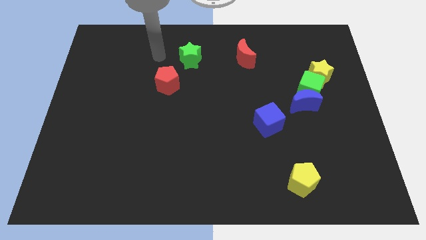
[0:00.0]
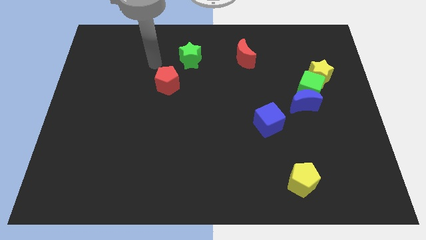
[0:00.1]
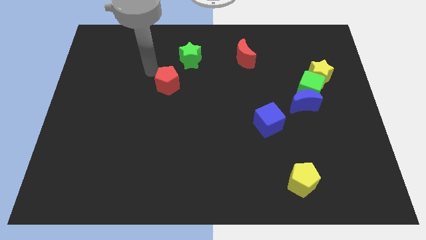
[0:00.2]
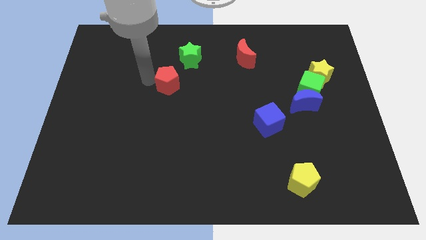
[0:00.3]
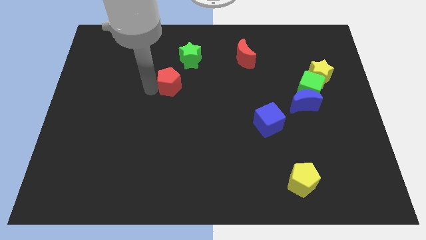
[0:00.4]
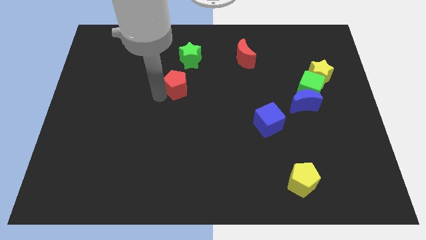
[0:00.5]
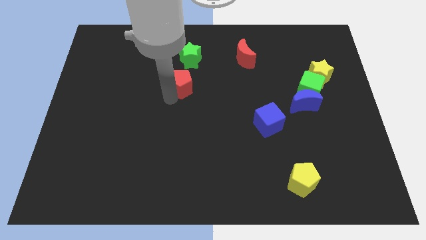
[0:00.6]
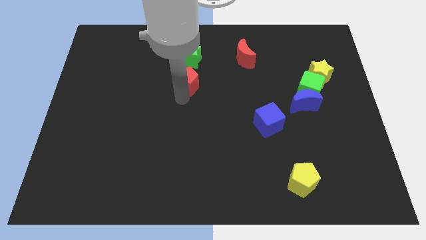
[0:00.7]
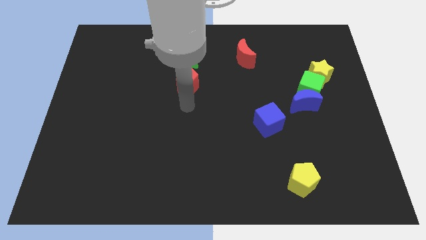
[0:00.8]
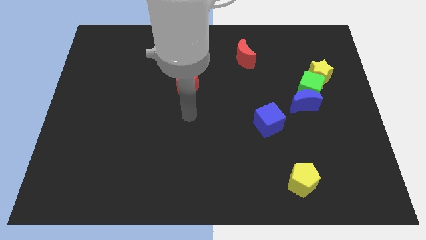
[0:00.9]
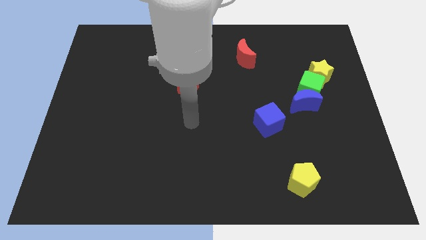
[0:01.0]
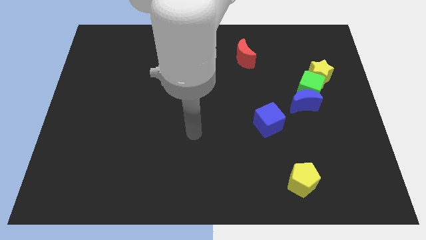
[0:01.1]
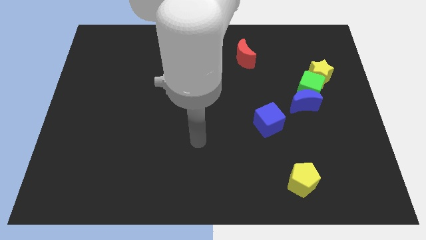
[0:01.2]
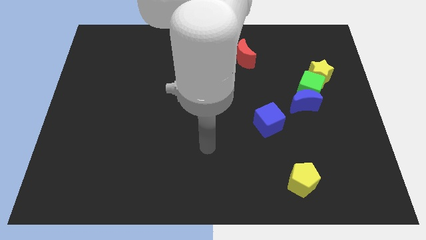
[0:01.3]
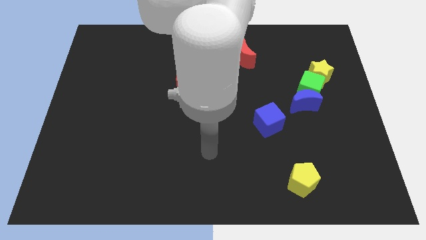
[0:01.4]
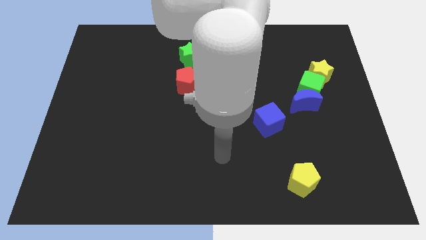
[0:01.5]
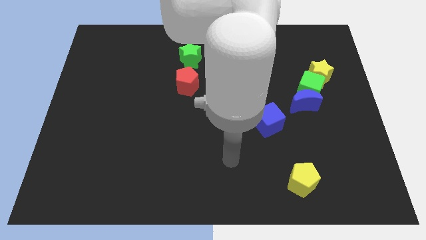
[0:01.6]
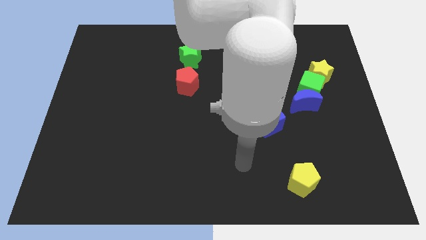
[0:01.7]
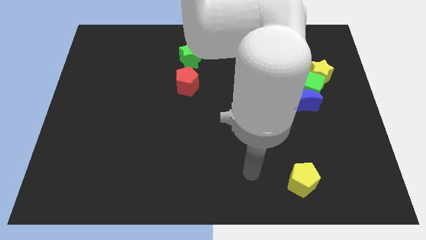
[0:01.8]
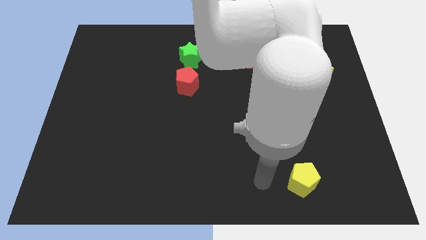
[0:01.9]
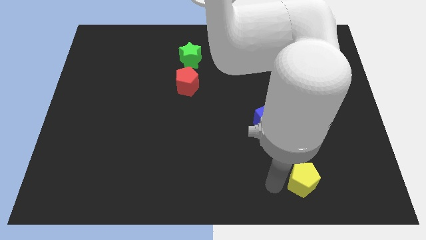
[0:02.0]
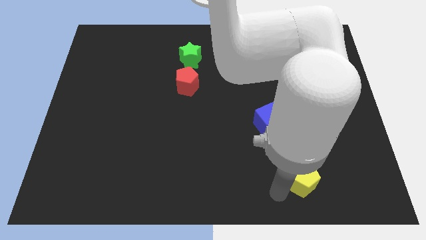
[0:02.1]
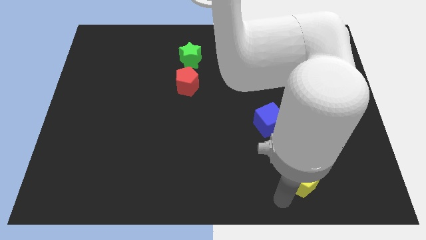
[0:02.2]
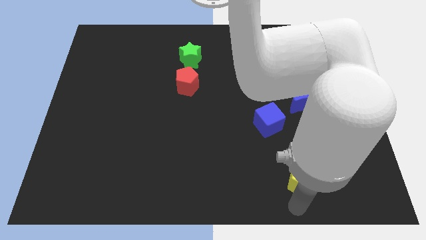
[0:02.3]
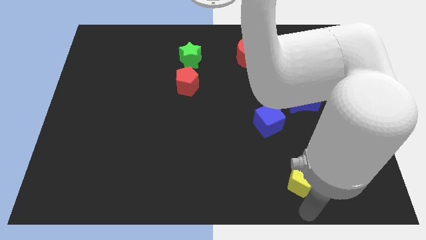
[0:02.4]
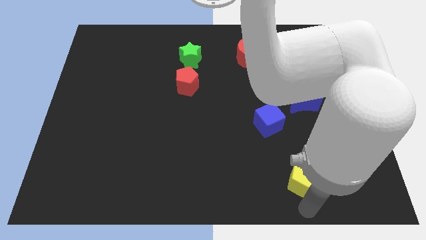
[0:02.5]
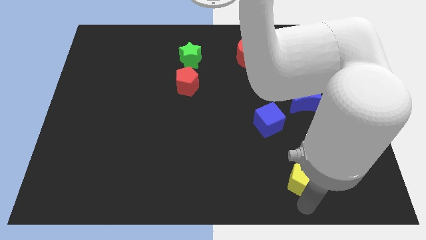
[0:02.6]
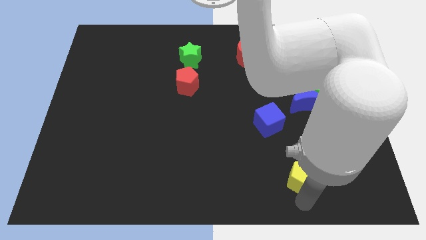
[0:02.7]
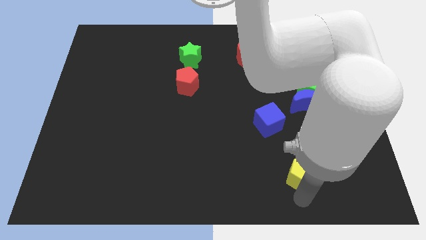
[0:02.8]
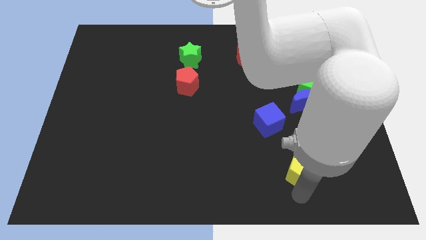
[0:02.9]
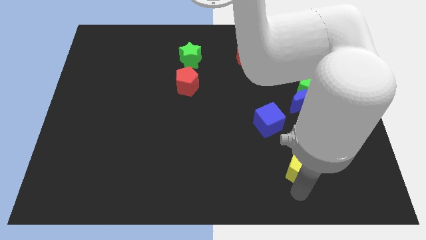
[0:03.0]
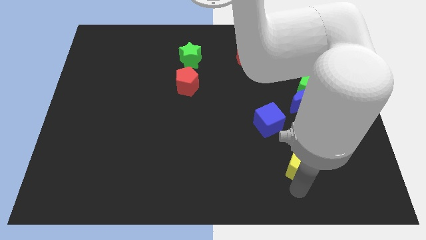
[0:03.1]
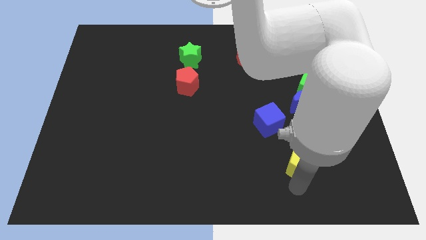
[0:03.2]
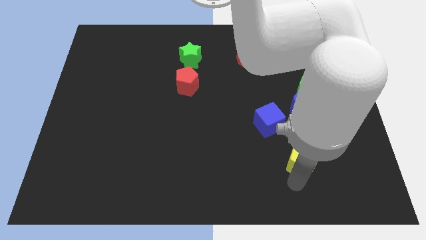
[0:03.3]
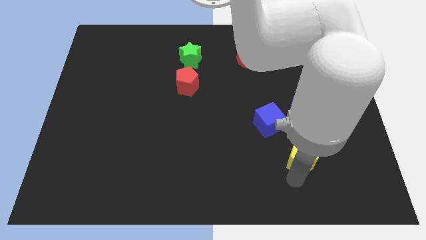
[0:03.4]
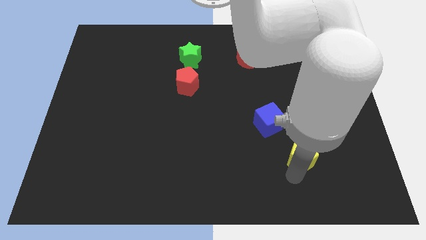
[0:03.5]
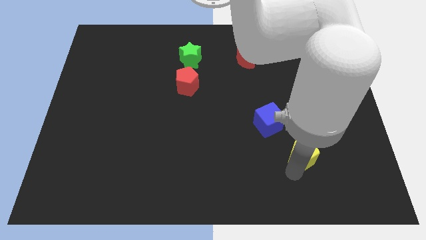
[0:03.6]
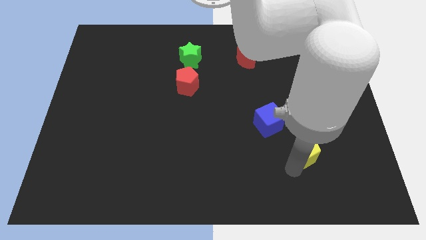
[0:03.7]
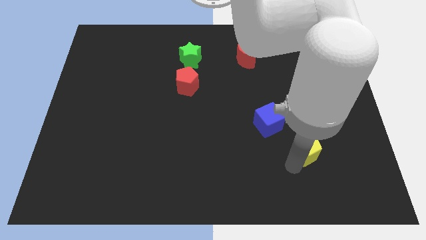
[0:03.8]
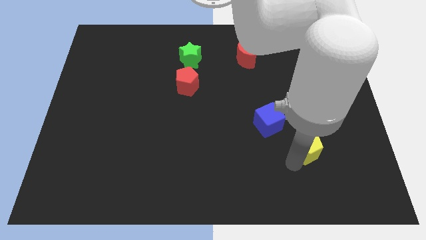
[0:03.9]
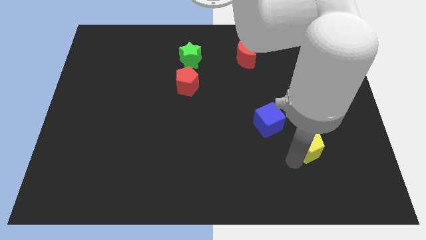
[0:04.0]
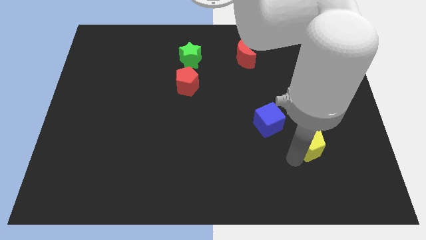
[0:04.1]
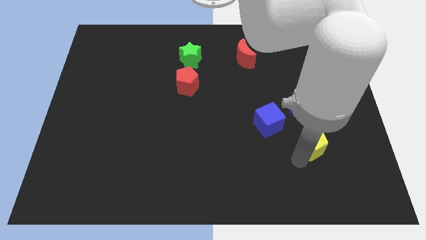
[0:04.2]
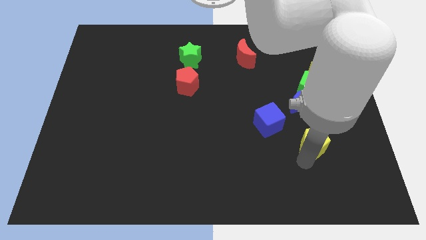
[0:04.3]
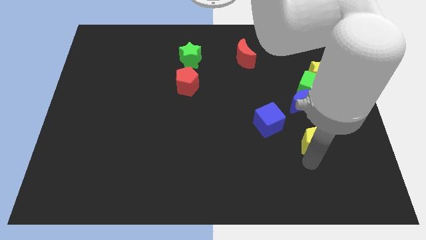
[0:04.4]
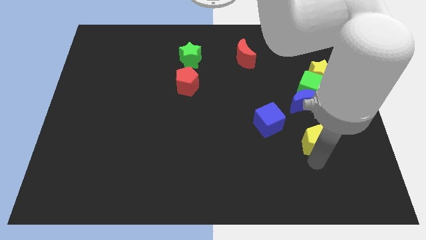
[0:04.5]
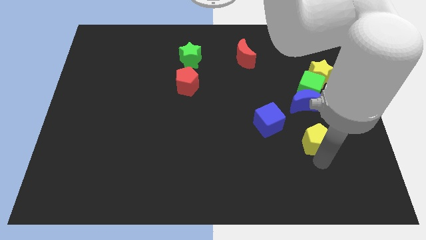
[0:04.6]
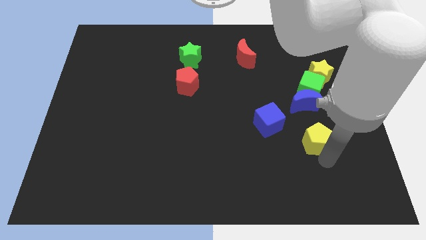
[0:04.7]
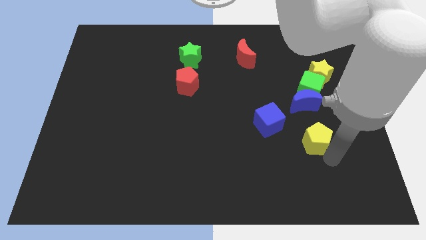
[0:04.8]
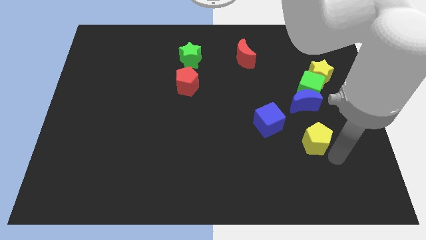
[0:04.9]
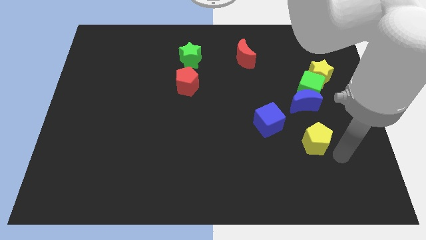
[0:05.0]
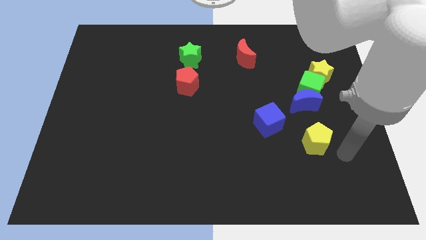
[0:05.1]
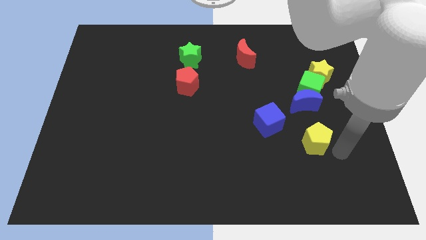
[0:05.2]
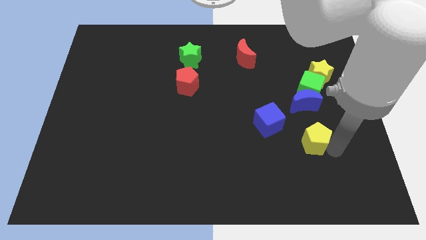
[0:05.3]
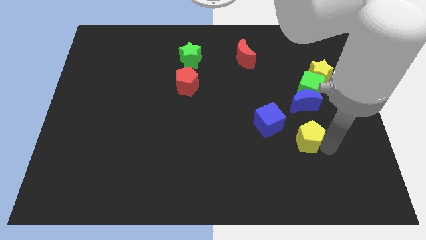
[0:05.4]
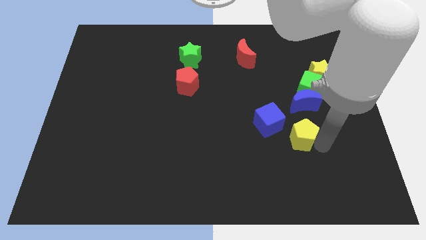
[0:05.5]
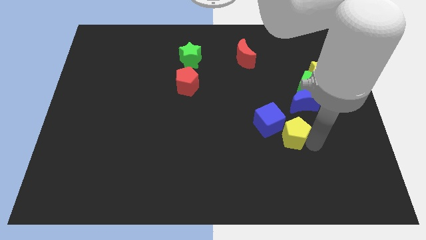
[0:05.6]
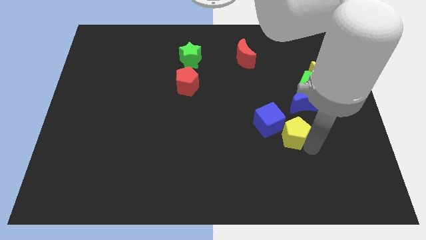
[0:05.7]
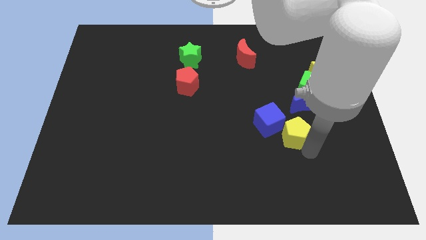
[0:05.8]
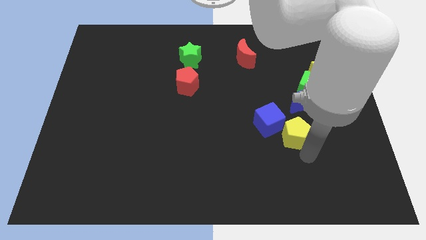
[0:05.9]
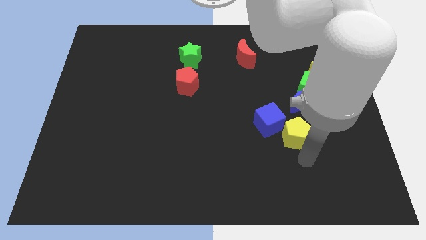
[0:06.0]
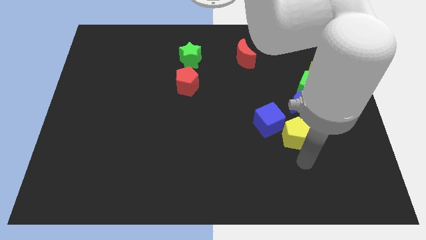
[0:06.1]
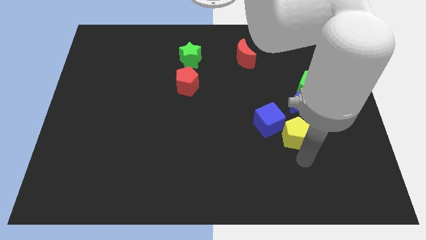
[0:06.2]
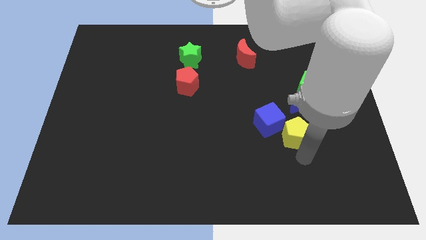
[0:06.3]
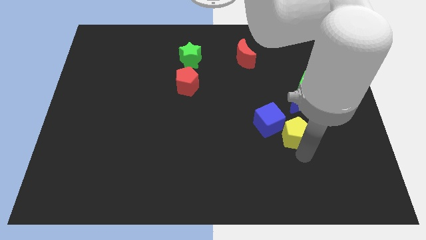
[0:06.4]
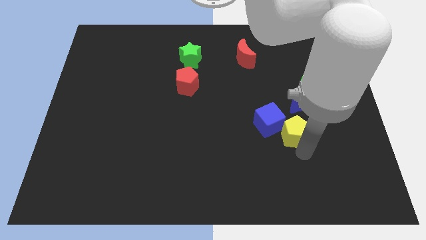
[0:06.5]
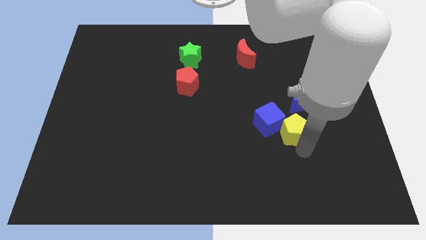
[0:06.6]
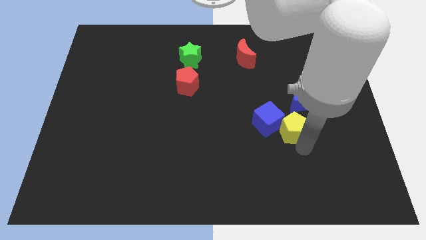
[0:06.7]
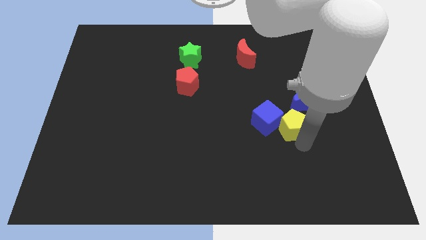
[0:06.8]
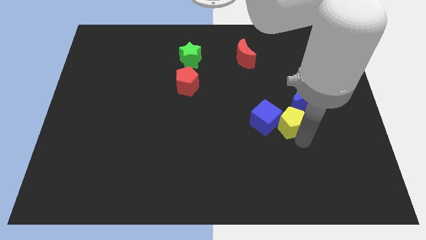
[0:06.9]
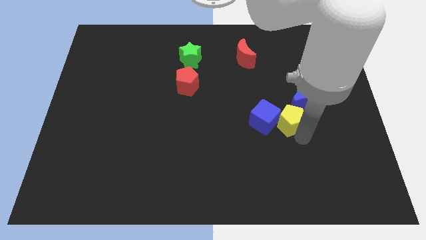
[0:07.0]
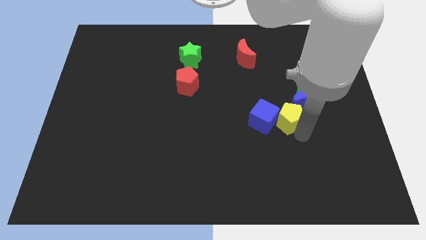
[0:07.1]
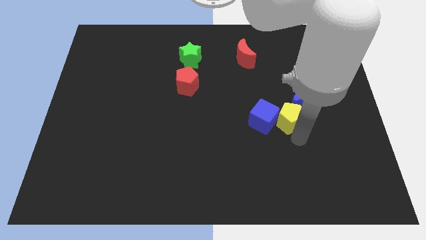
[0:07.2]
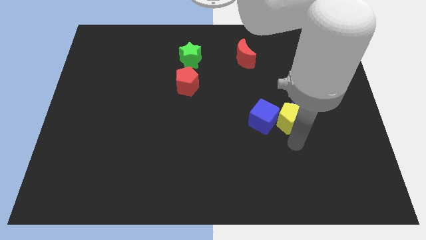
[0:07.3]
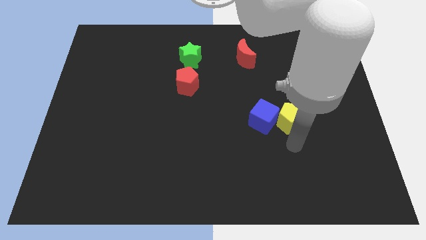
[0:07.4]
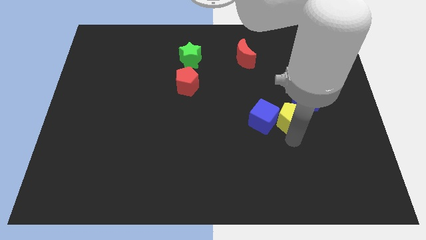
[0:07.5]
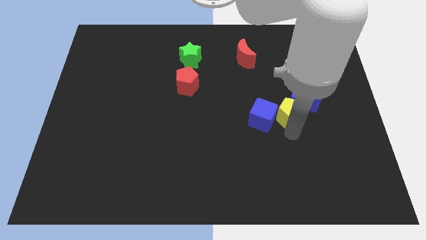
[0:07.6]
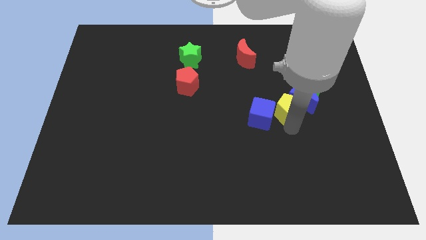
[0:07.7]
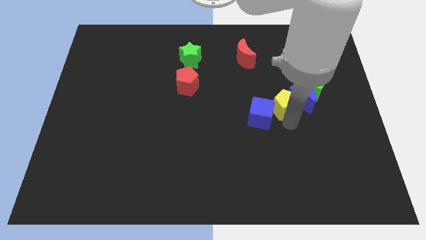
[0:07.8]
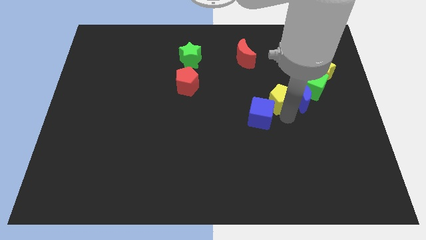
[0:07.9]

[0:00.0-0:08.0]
slide the yellow pentagon upwards
